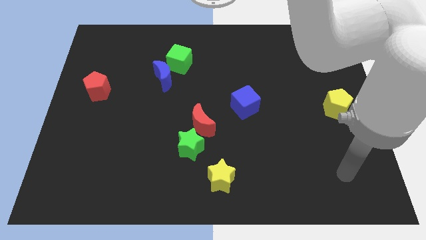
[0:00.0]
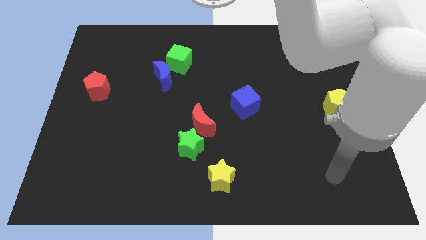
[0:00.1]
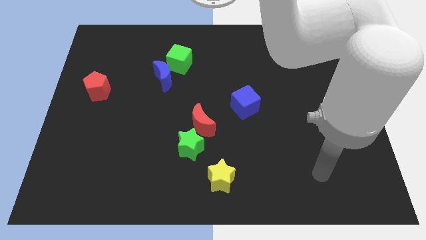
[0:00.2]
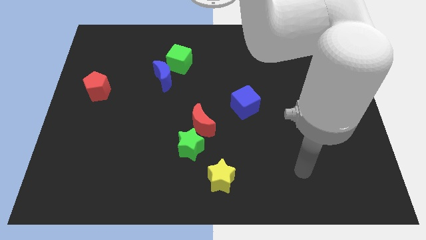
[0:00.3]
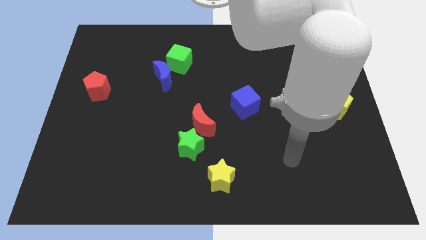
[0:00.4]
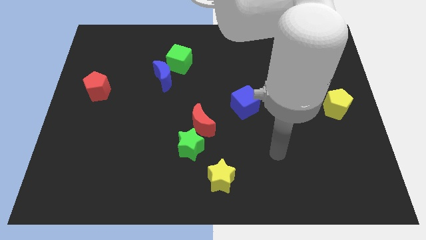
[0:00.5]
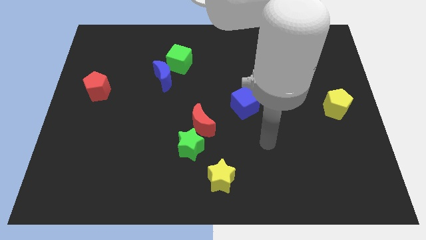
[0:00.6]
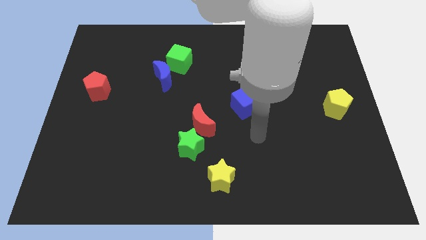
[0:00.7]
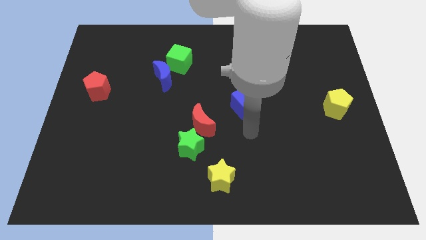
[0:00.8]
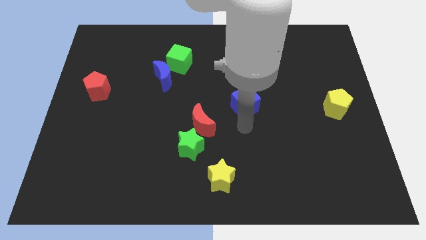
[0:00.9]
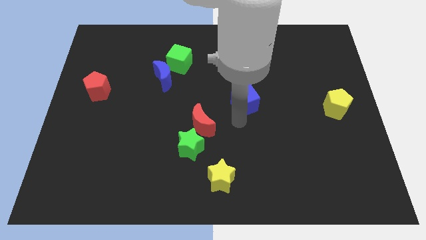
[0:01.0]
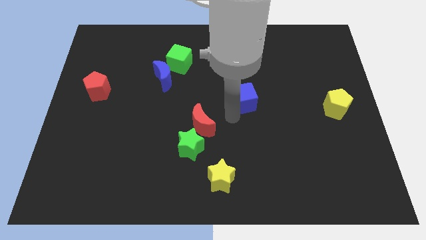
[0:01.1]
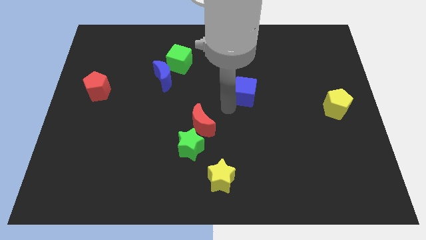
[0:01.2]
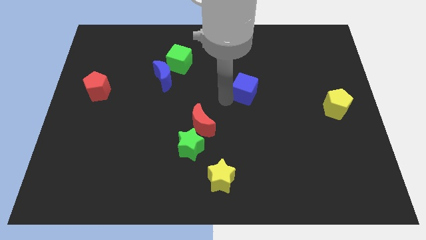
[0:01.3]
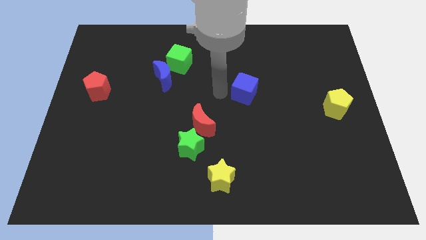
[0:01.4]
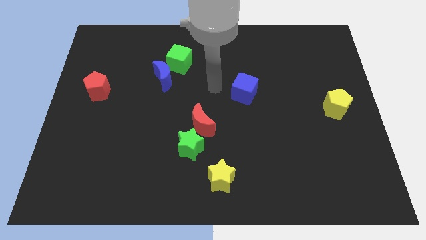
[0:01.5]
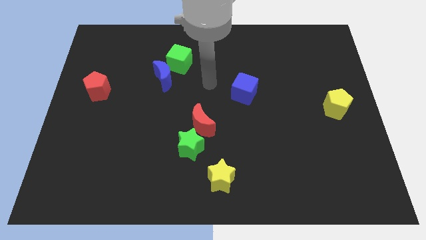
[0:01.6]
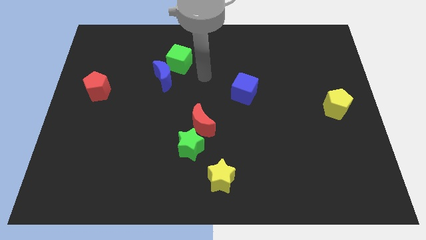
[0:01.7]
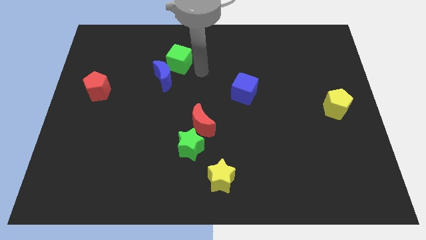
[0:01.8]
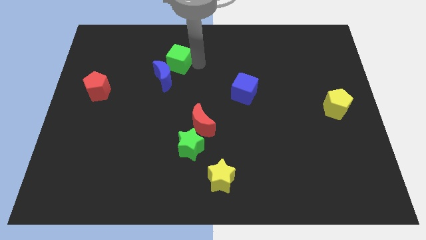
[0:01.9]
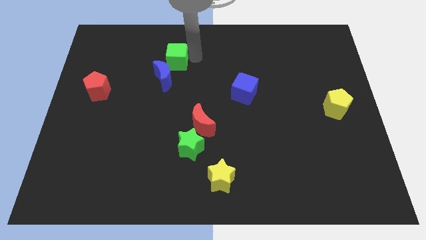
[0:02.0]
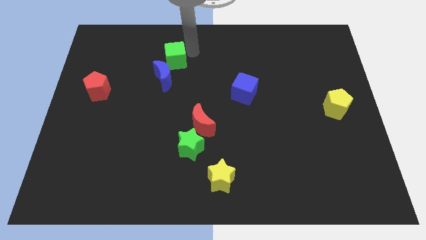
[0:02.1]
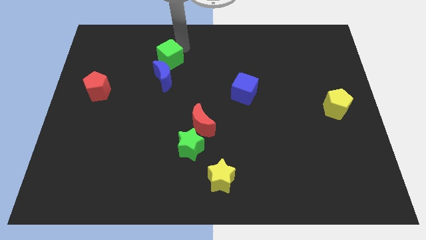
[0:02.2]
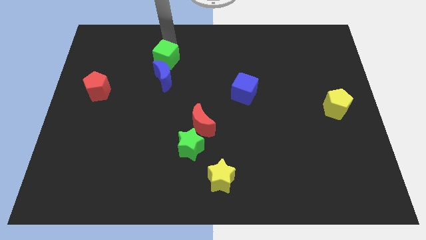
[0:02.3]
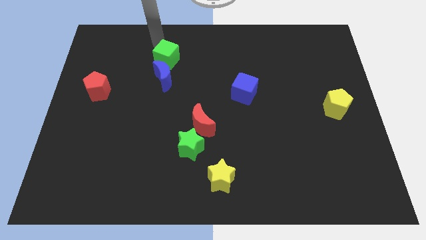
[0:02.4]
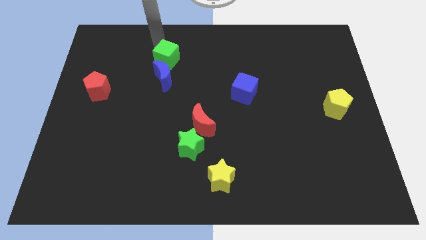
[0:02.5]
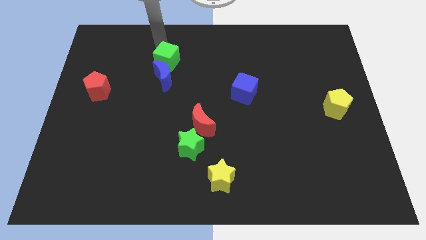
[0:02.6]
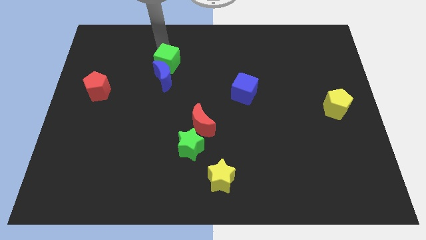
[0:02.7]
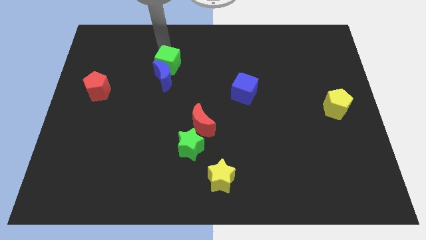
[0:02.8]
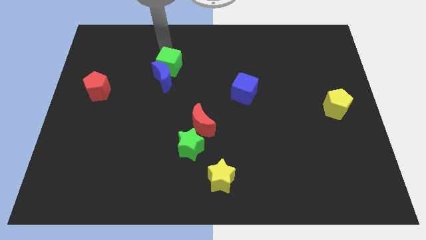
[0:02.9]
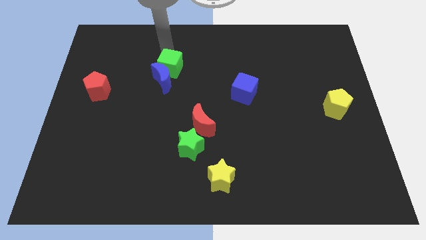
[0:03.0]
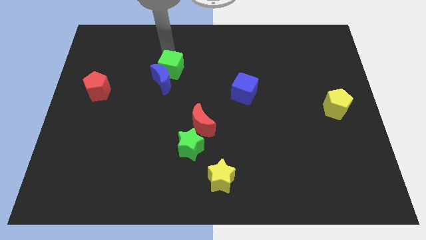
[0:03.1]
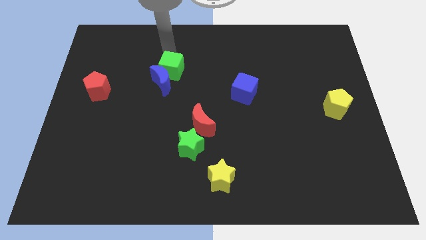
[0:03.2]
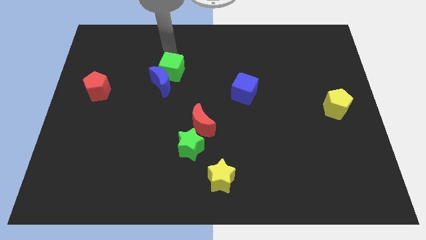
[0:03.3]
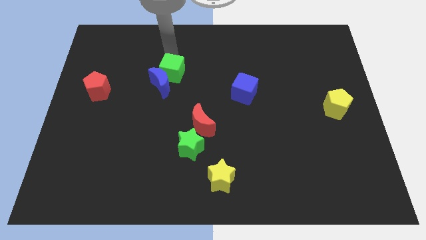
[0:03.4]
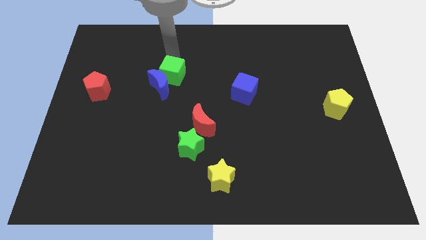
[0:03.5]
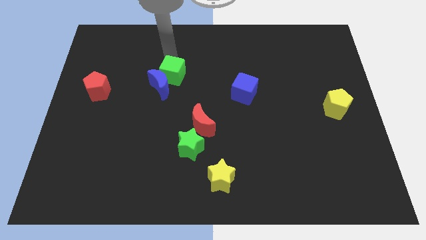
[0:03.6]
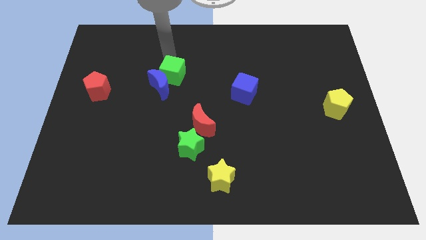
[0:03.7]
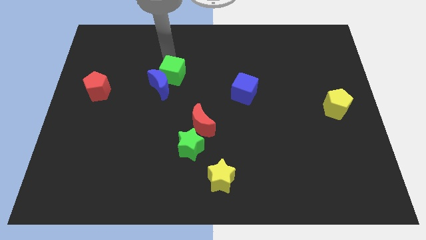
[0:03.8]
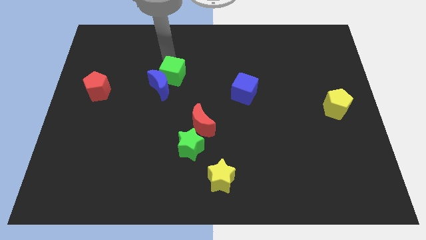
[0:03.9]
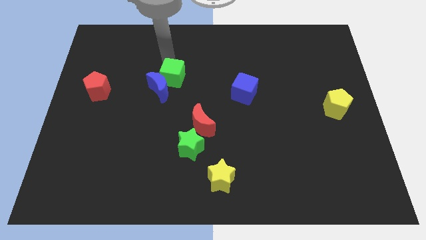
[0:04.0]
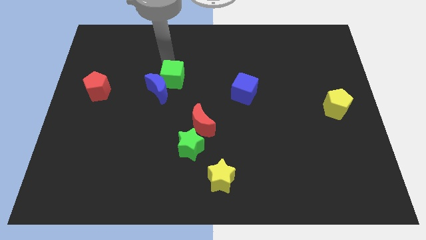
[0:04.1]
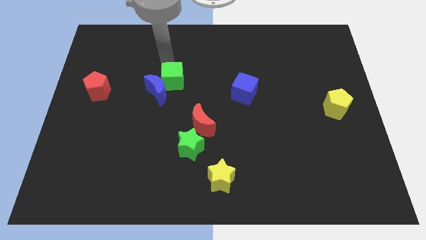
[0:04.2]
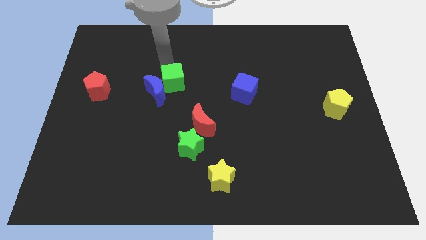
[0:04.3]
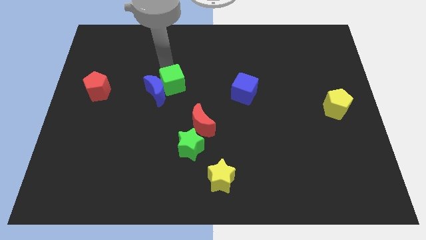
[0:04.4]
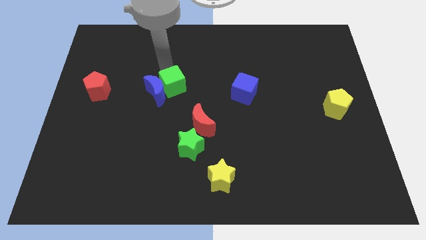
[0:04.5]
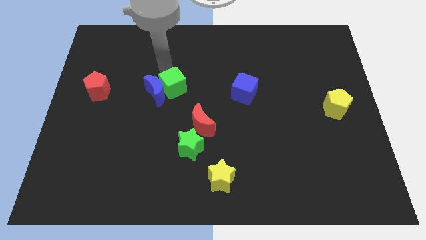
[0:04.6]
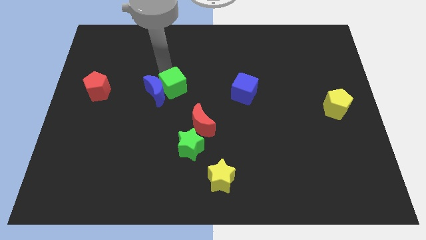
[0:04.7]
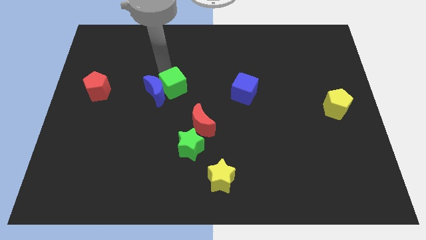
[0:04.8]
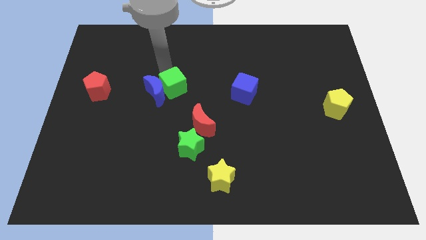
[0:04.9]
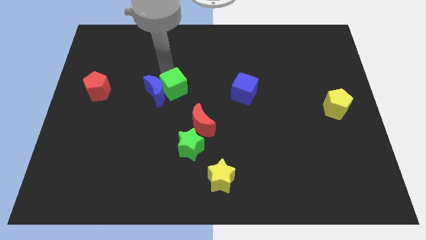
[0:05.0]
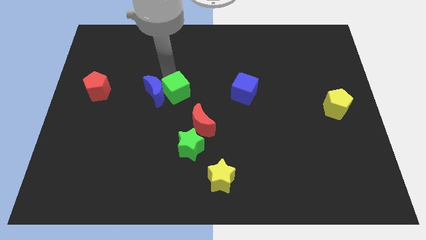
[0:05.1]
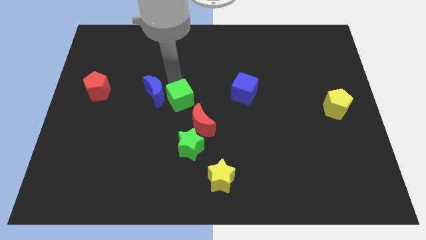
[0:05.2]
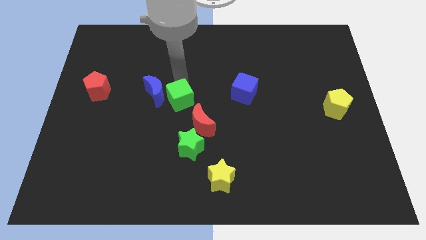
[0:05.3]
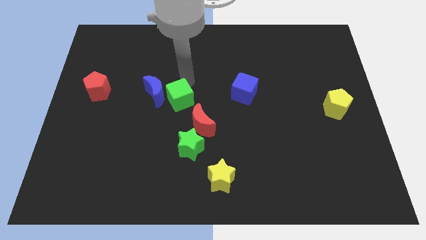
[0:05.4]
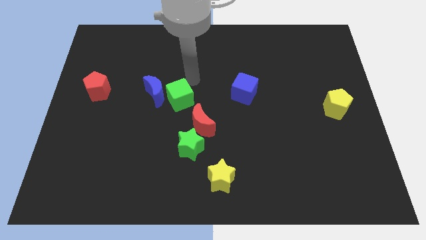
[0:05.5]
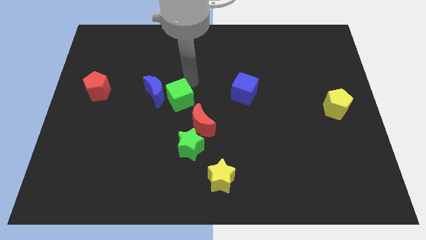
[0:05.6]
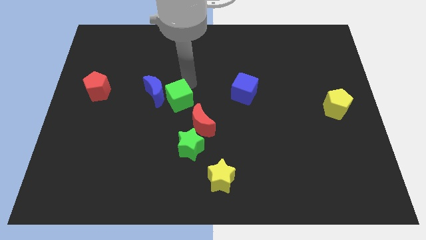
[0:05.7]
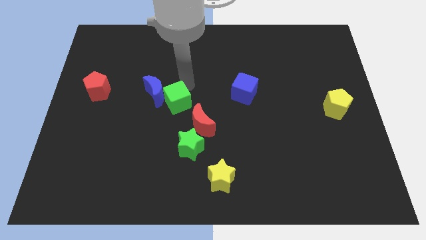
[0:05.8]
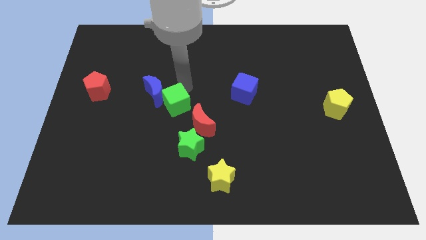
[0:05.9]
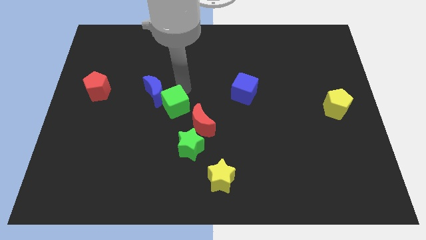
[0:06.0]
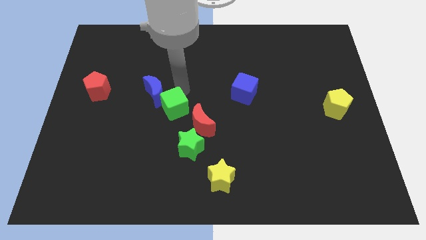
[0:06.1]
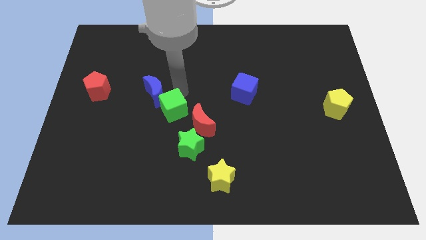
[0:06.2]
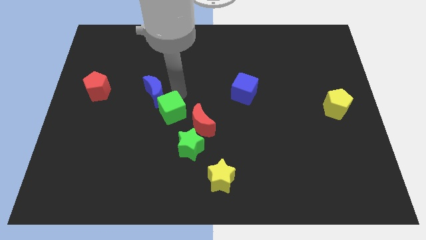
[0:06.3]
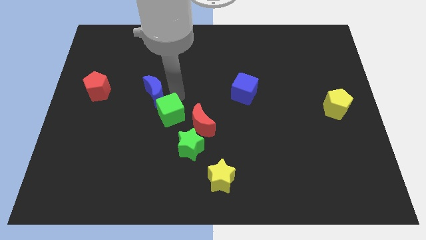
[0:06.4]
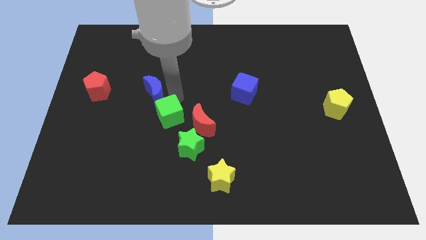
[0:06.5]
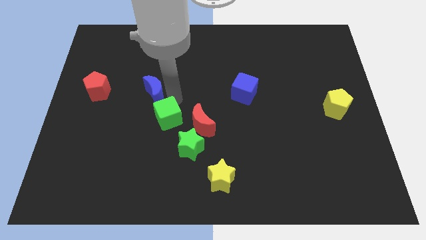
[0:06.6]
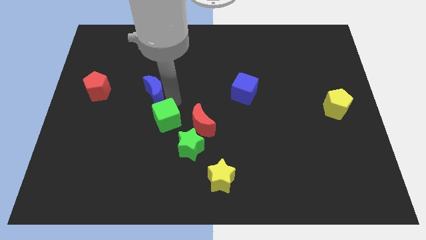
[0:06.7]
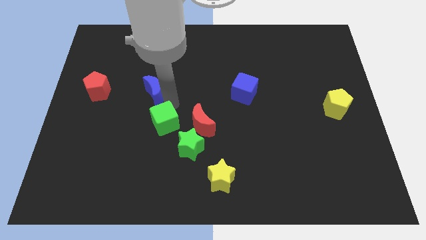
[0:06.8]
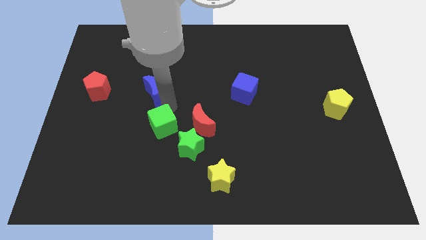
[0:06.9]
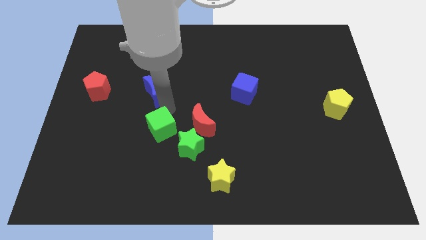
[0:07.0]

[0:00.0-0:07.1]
push the green cube to the left of the green star
